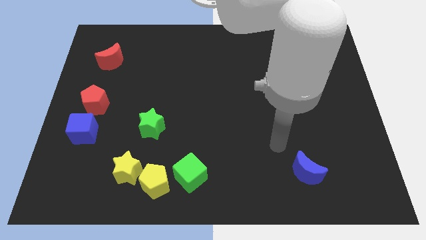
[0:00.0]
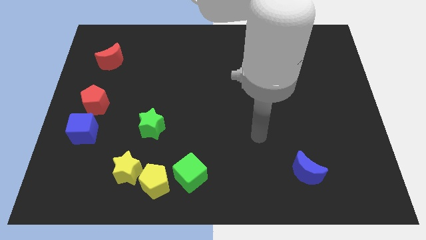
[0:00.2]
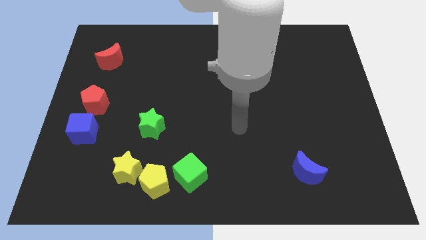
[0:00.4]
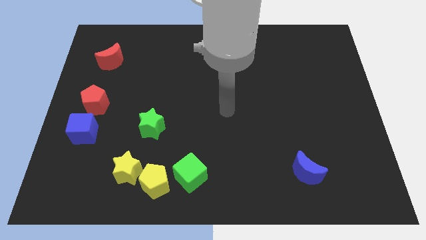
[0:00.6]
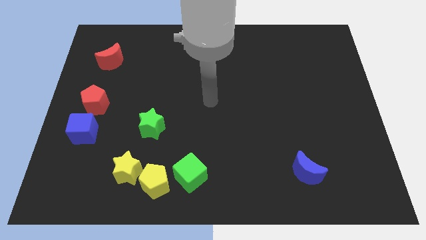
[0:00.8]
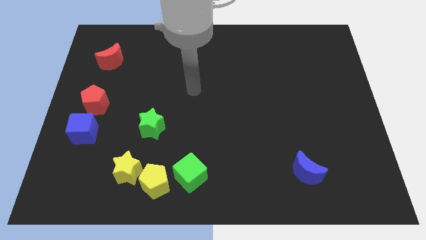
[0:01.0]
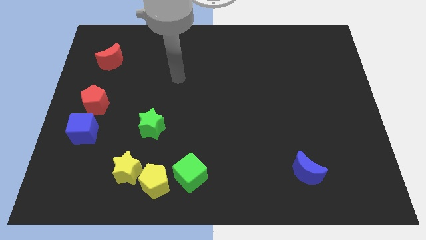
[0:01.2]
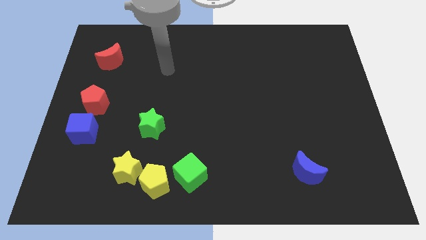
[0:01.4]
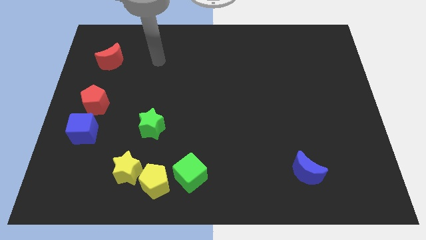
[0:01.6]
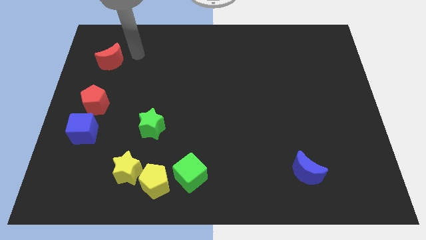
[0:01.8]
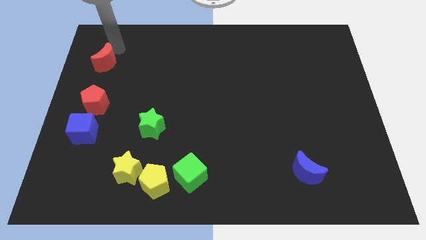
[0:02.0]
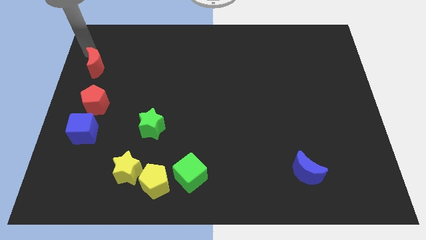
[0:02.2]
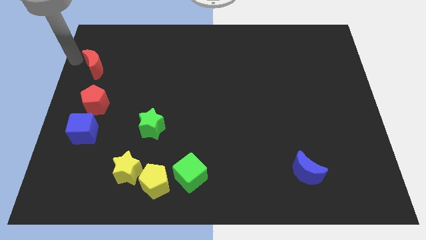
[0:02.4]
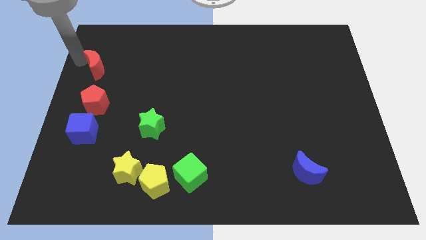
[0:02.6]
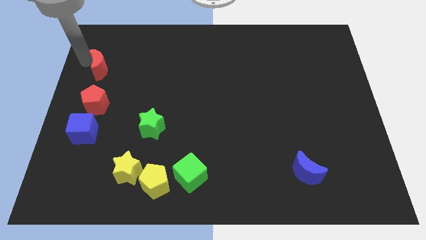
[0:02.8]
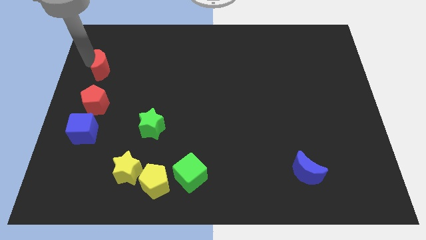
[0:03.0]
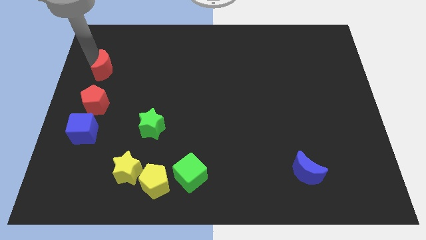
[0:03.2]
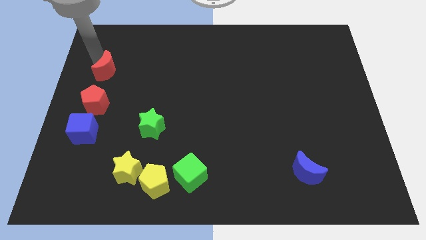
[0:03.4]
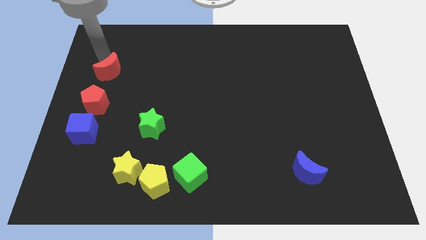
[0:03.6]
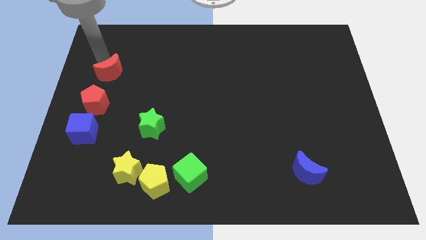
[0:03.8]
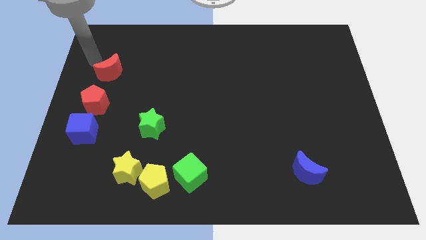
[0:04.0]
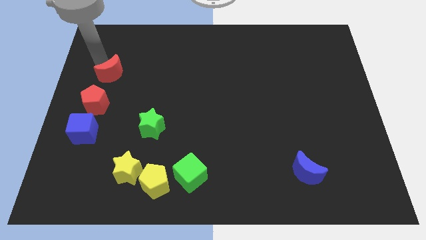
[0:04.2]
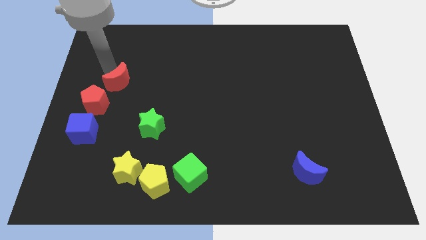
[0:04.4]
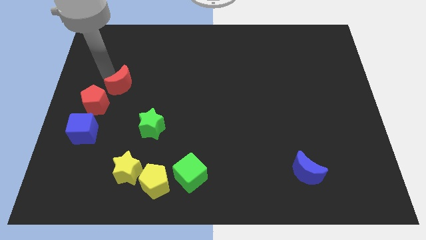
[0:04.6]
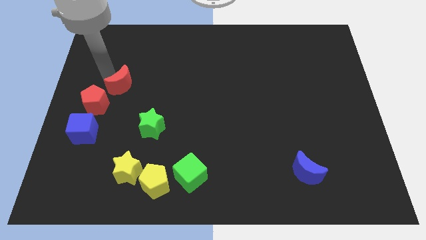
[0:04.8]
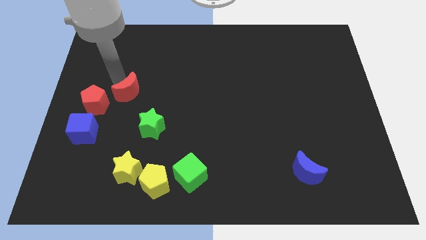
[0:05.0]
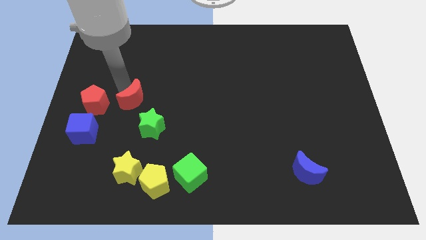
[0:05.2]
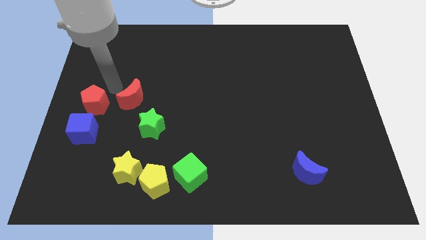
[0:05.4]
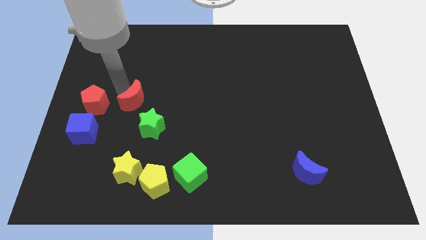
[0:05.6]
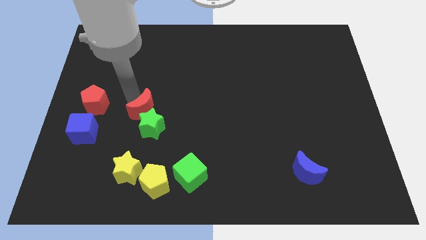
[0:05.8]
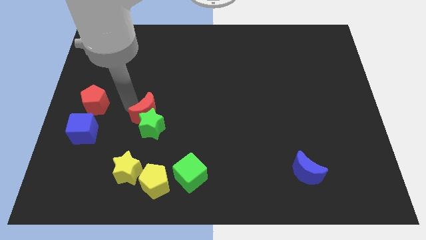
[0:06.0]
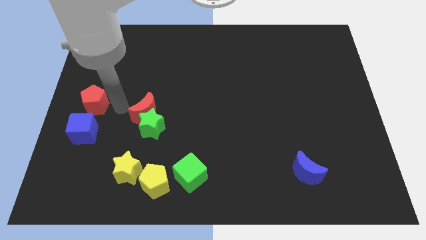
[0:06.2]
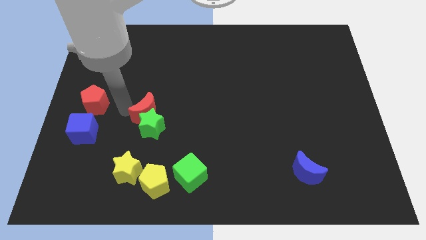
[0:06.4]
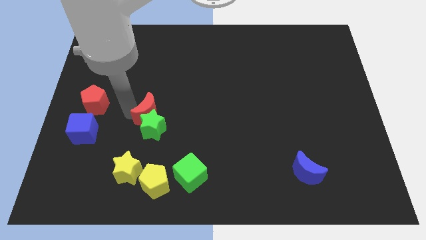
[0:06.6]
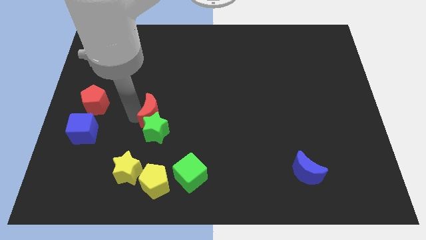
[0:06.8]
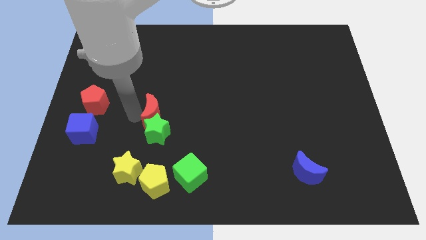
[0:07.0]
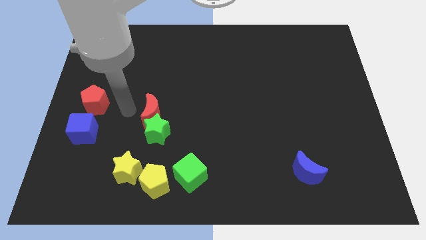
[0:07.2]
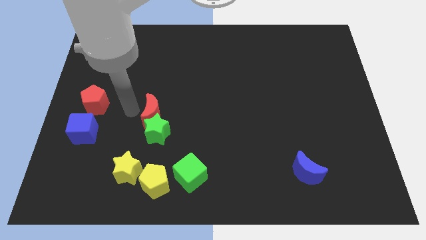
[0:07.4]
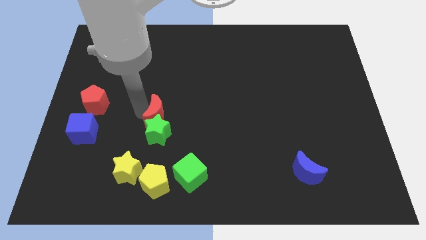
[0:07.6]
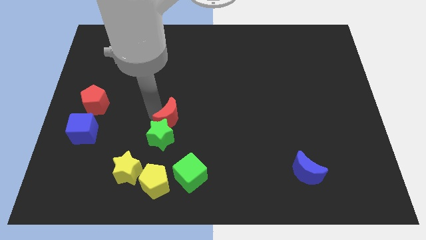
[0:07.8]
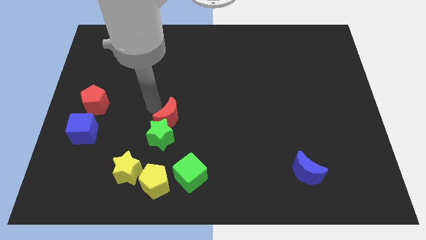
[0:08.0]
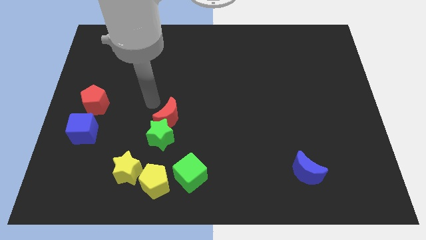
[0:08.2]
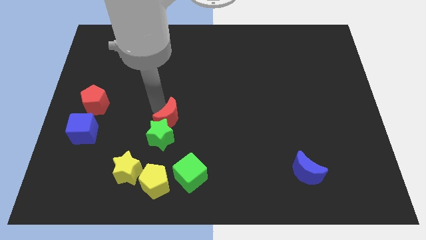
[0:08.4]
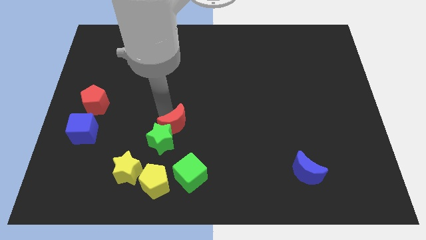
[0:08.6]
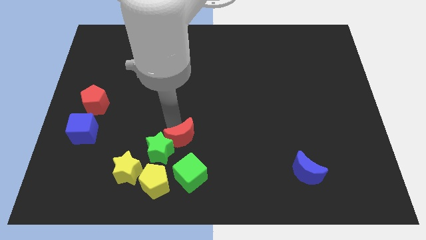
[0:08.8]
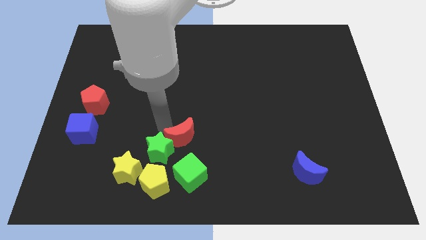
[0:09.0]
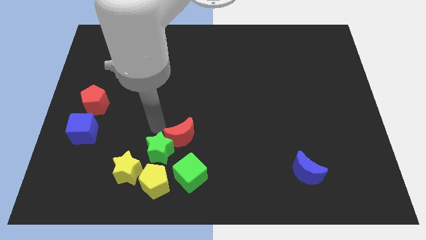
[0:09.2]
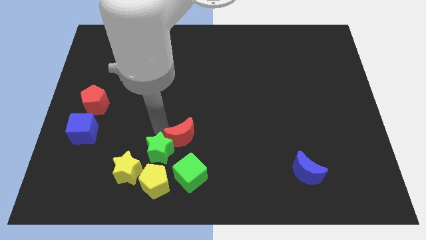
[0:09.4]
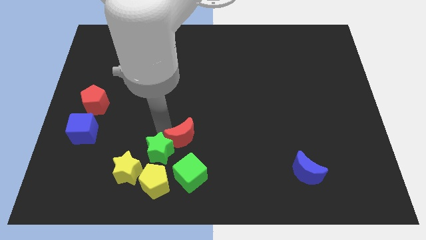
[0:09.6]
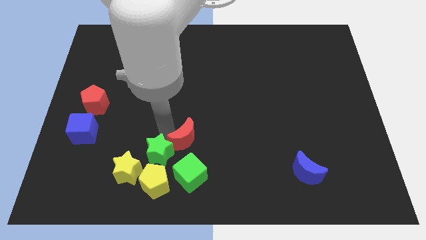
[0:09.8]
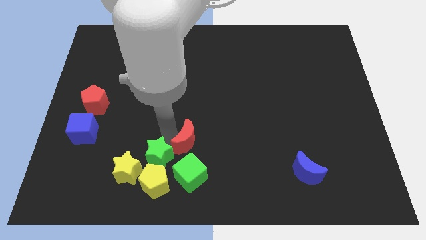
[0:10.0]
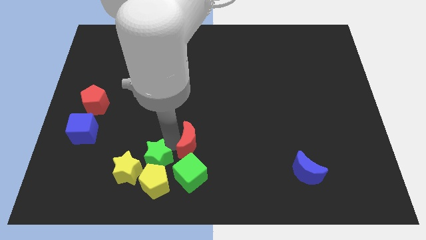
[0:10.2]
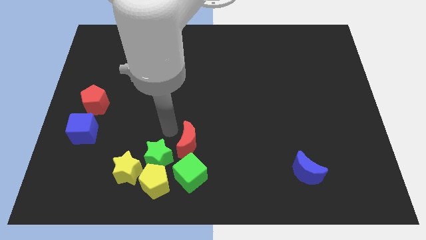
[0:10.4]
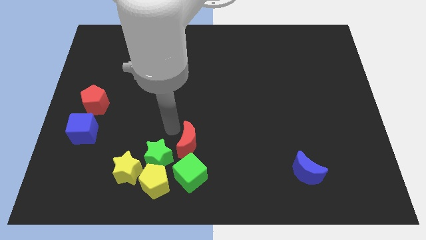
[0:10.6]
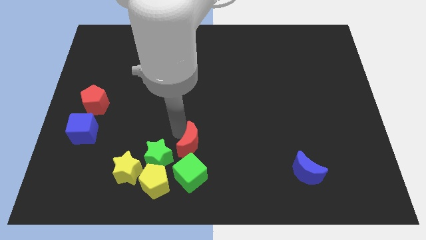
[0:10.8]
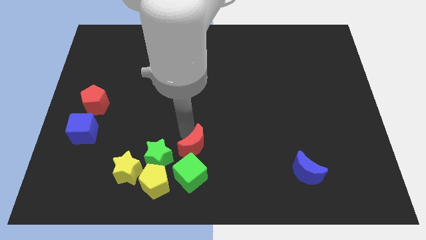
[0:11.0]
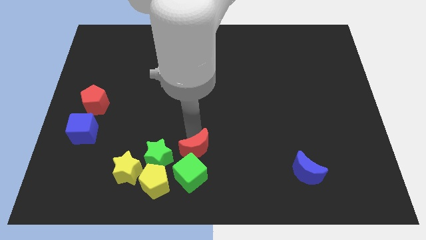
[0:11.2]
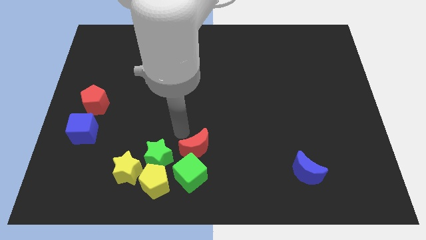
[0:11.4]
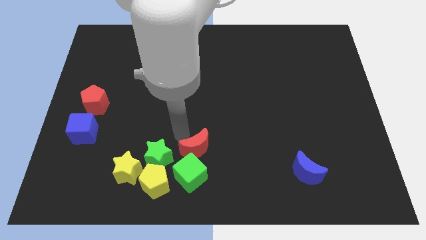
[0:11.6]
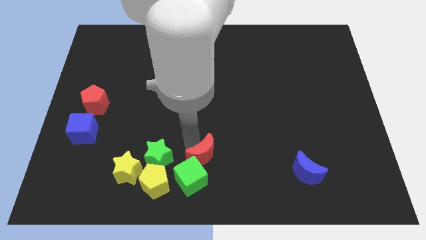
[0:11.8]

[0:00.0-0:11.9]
move the red moon to the bottom

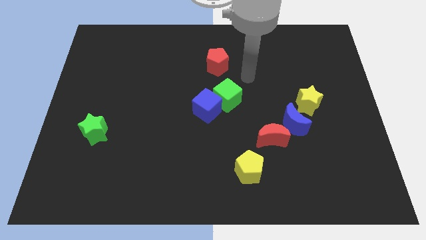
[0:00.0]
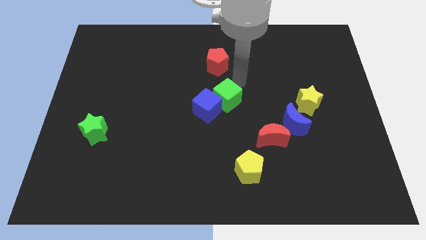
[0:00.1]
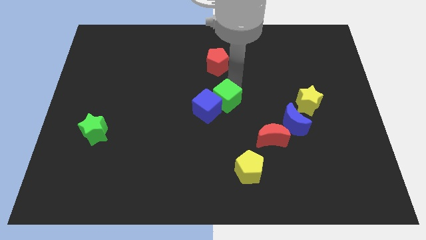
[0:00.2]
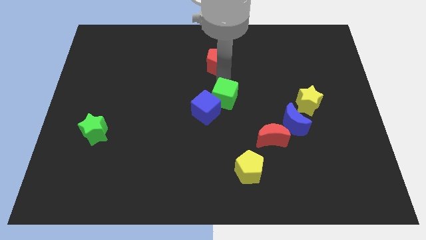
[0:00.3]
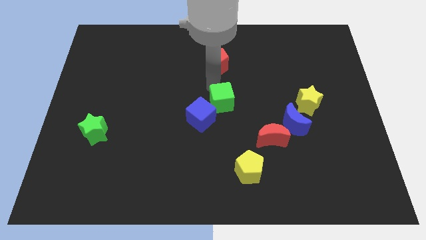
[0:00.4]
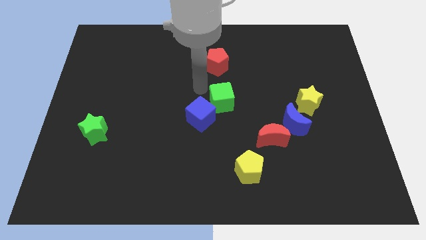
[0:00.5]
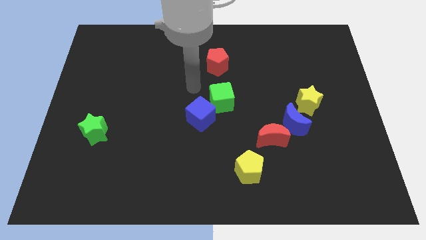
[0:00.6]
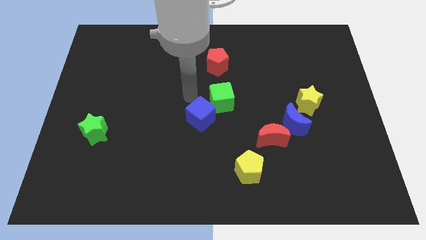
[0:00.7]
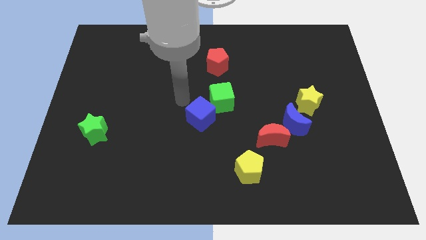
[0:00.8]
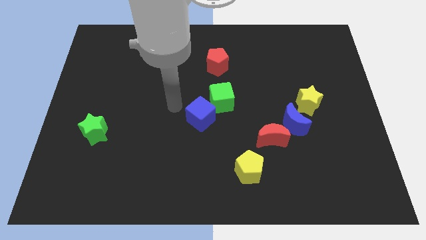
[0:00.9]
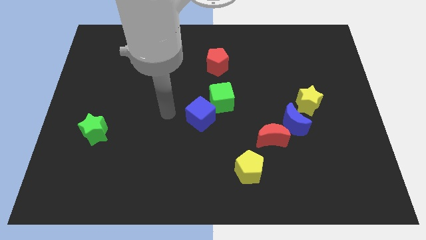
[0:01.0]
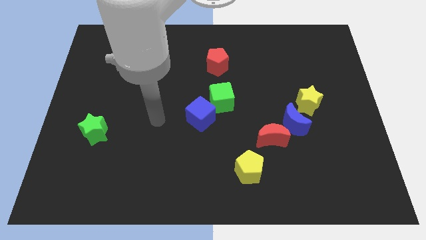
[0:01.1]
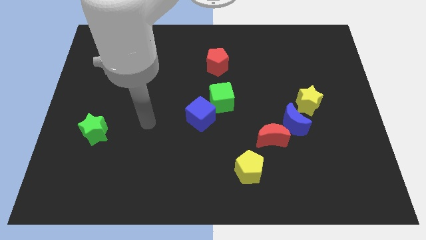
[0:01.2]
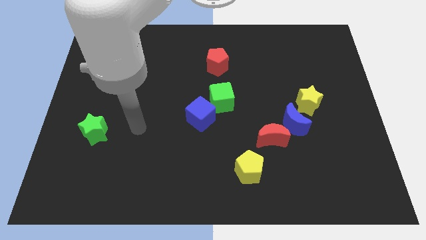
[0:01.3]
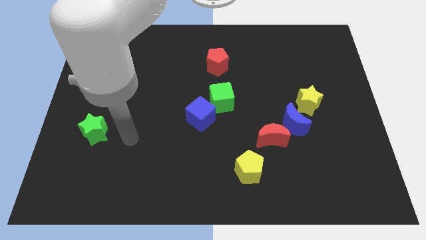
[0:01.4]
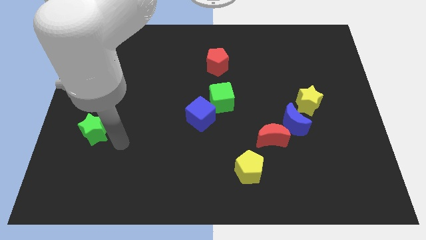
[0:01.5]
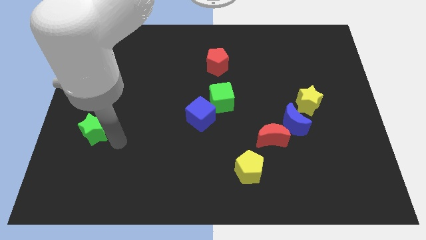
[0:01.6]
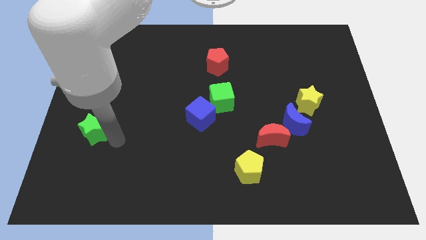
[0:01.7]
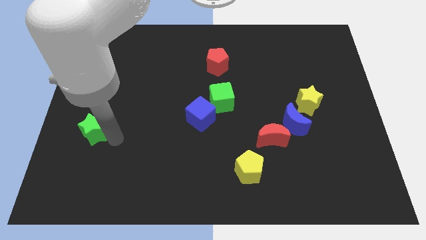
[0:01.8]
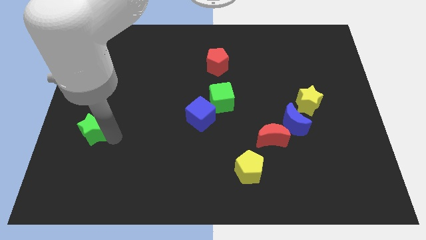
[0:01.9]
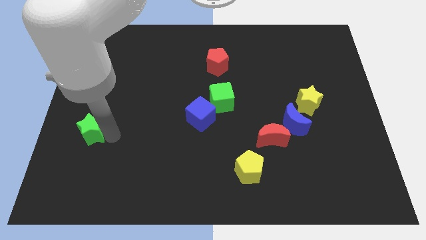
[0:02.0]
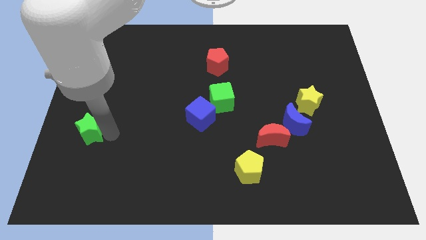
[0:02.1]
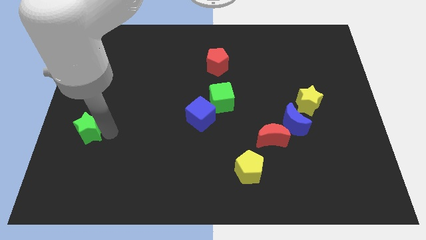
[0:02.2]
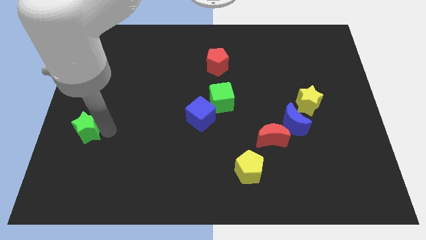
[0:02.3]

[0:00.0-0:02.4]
push the green star to the center left
